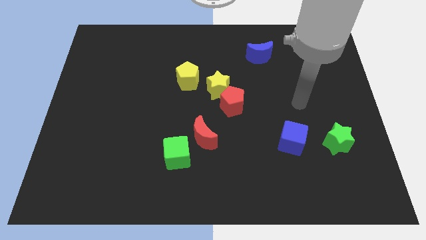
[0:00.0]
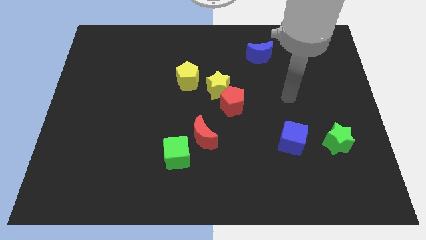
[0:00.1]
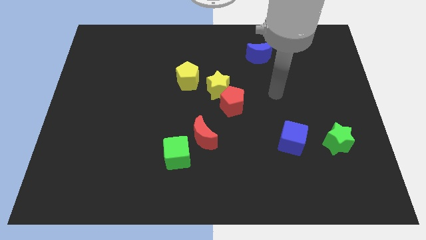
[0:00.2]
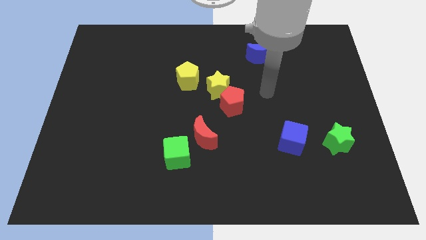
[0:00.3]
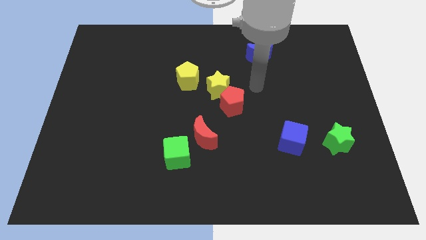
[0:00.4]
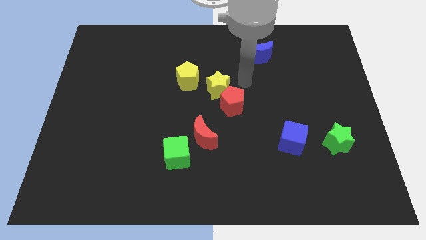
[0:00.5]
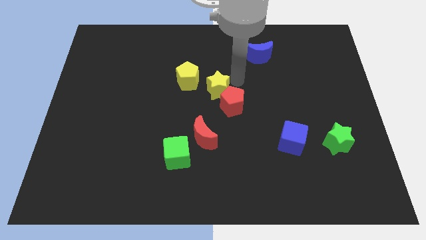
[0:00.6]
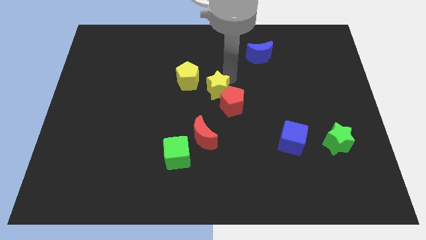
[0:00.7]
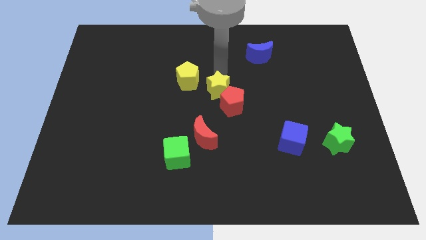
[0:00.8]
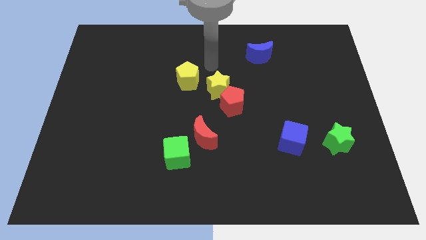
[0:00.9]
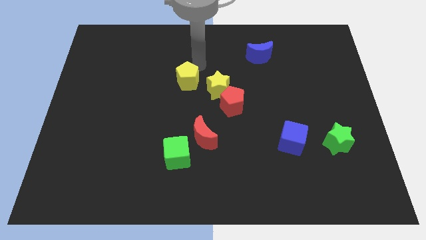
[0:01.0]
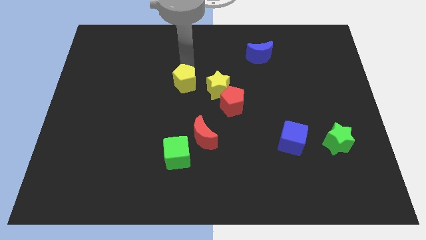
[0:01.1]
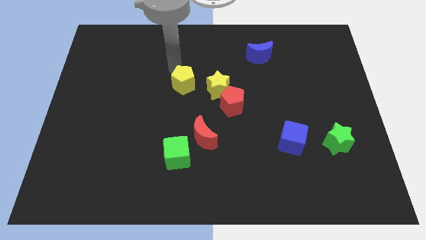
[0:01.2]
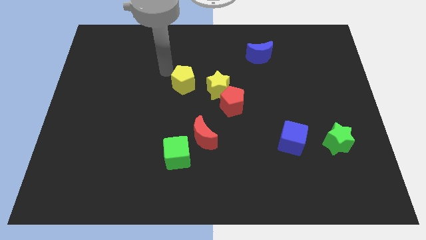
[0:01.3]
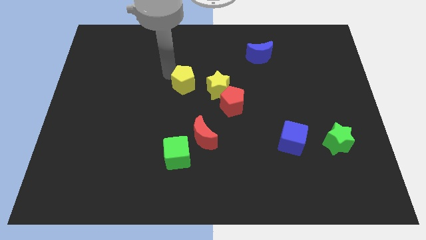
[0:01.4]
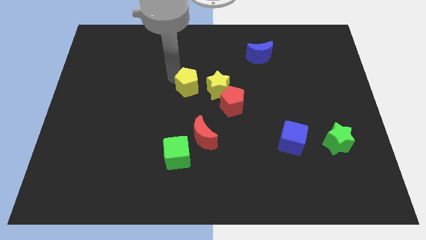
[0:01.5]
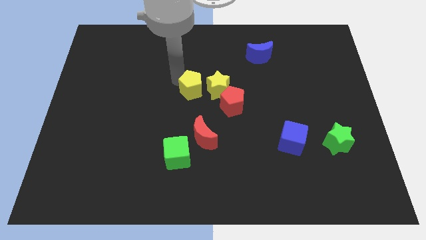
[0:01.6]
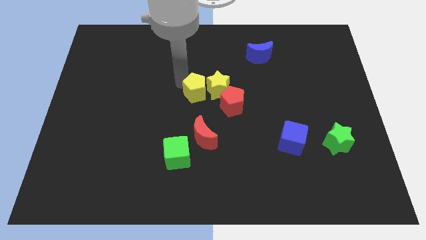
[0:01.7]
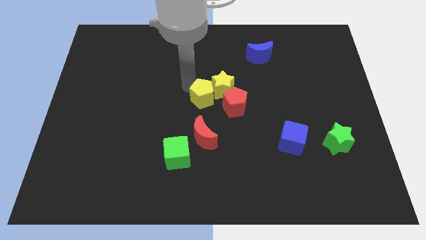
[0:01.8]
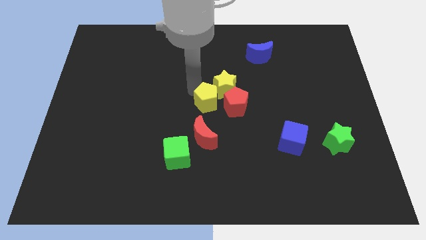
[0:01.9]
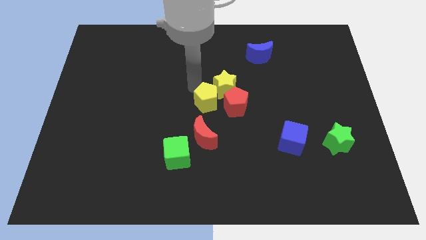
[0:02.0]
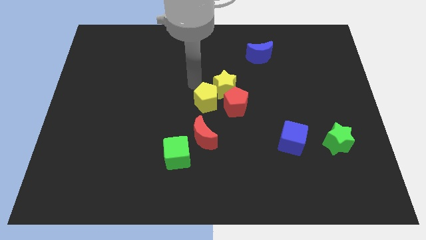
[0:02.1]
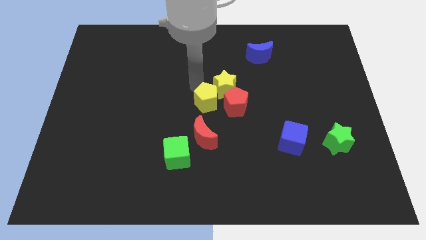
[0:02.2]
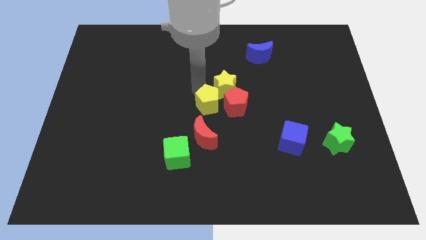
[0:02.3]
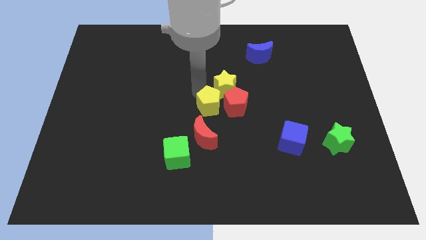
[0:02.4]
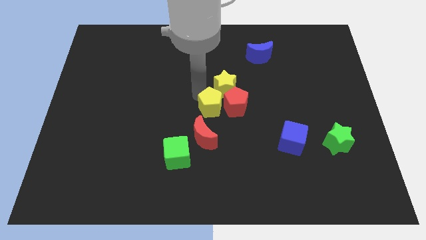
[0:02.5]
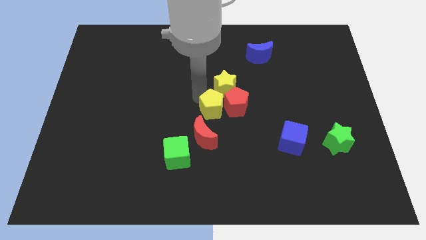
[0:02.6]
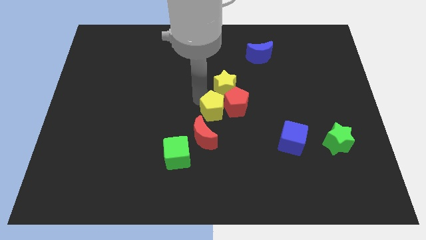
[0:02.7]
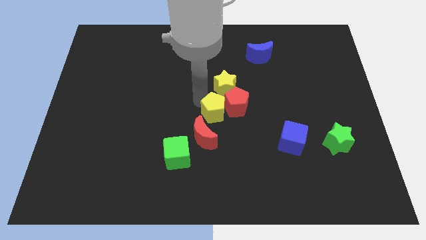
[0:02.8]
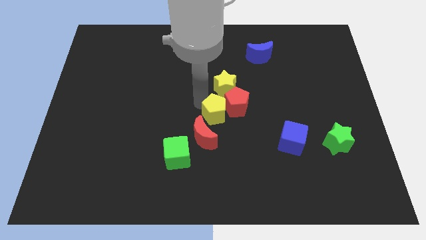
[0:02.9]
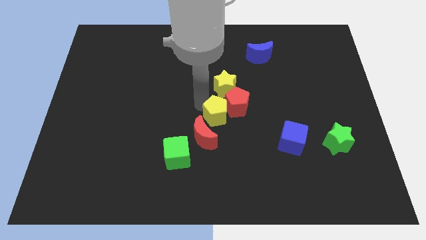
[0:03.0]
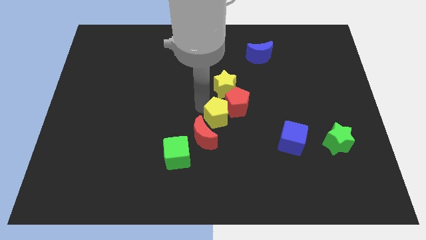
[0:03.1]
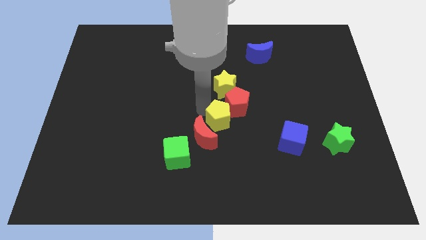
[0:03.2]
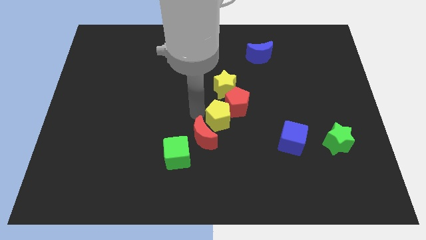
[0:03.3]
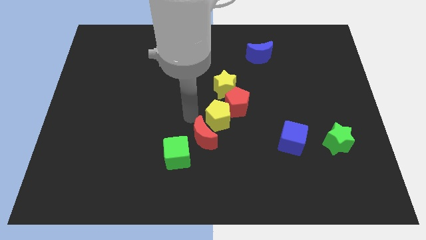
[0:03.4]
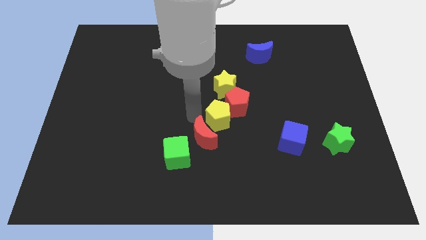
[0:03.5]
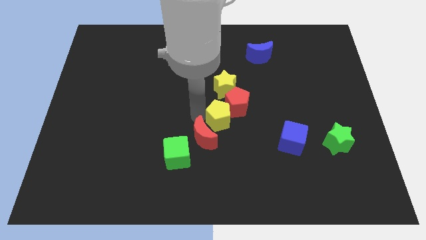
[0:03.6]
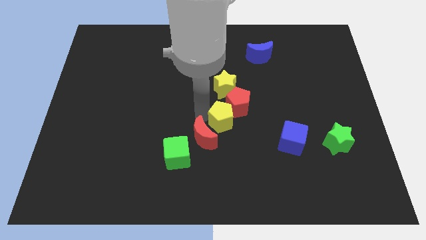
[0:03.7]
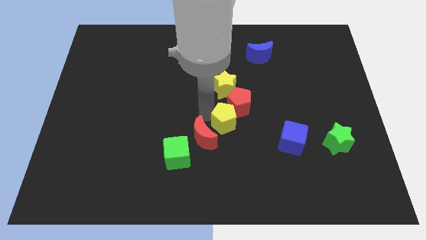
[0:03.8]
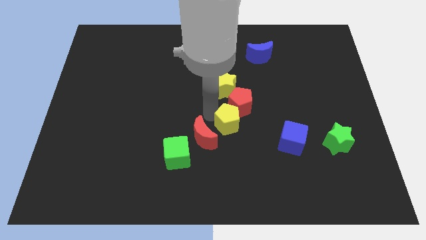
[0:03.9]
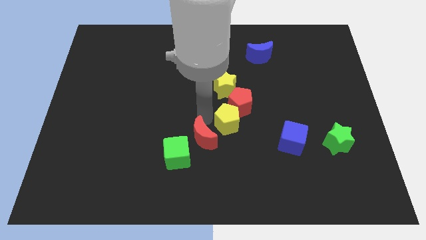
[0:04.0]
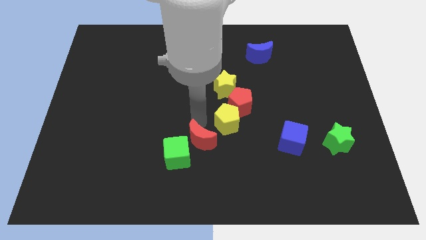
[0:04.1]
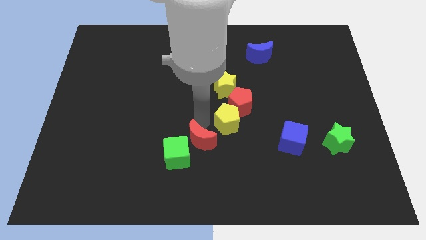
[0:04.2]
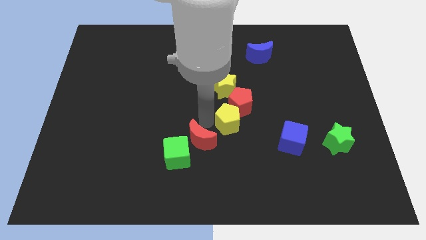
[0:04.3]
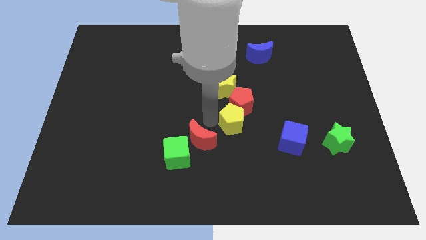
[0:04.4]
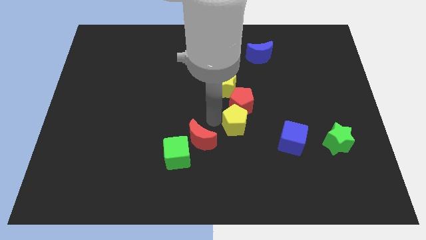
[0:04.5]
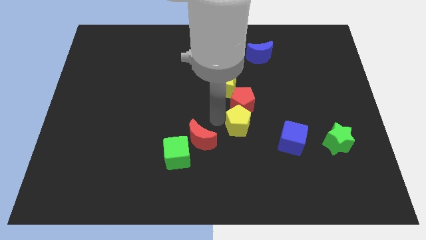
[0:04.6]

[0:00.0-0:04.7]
move the yellow pentagon diagonally down and to the right of the red pentagon

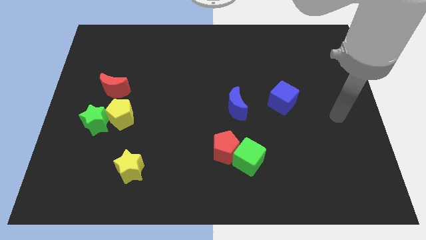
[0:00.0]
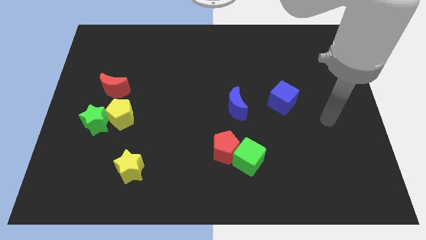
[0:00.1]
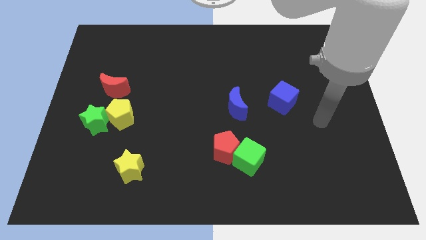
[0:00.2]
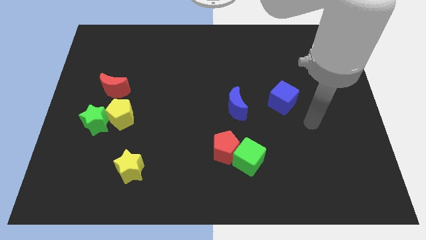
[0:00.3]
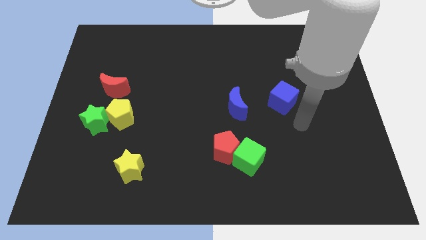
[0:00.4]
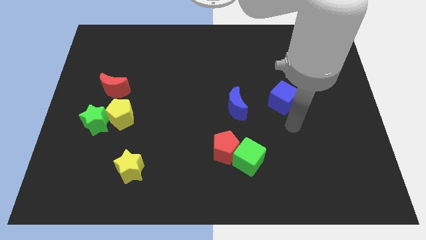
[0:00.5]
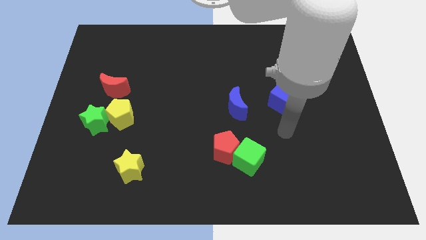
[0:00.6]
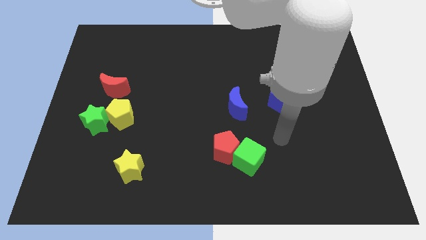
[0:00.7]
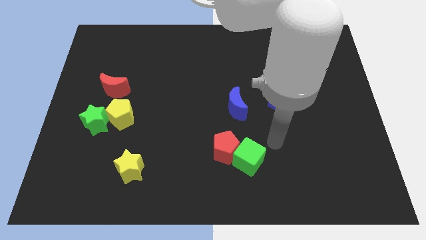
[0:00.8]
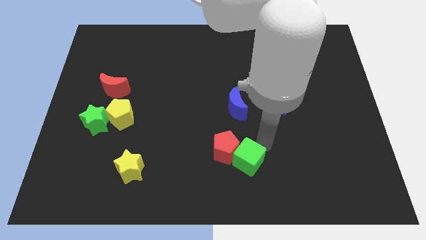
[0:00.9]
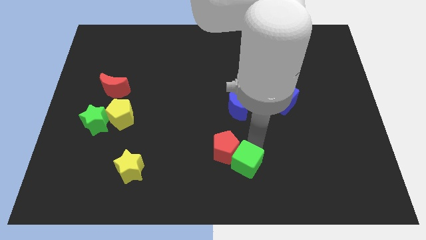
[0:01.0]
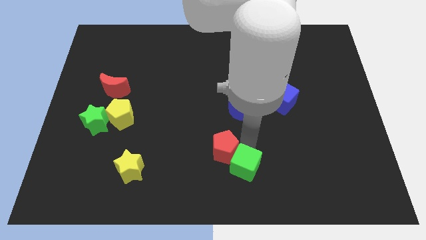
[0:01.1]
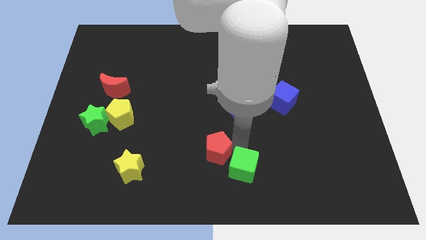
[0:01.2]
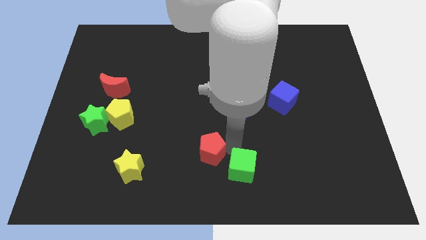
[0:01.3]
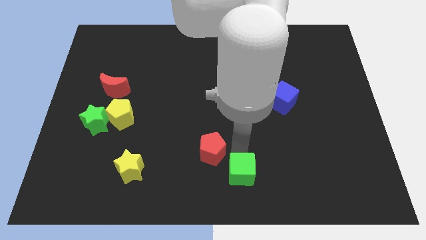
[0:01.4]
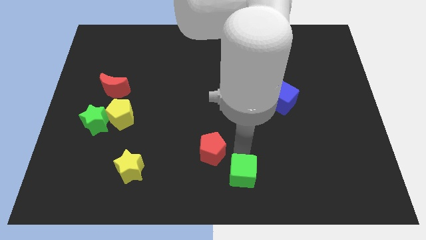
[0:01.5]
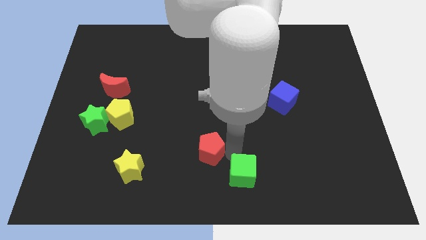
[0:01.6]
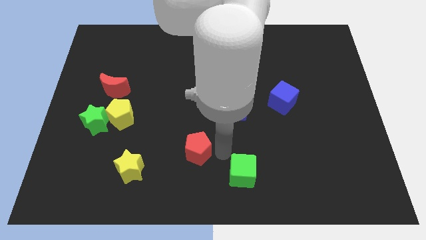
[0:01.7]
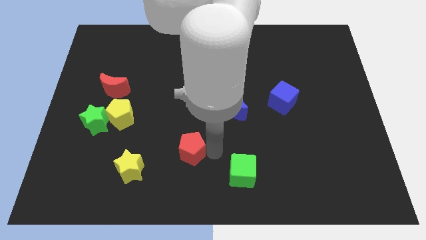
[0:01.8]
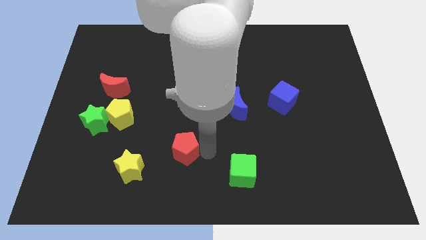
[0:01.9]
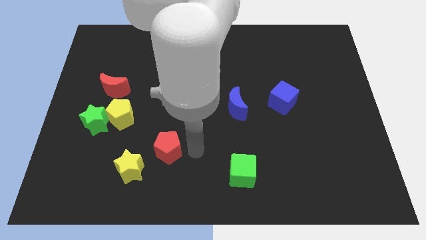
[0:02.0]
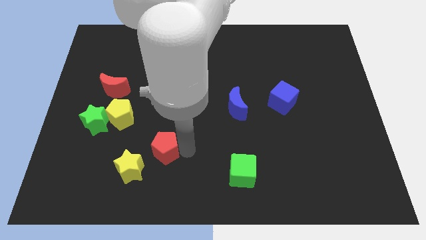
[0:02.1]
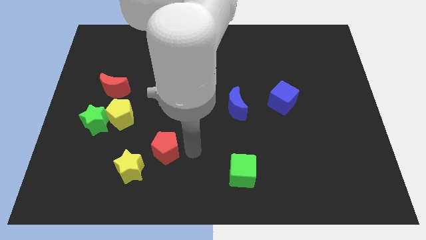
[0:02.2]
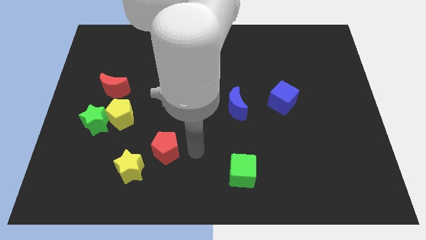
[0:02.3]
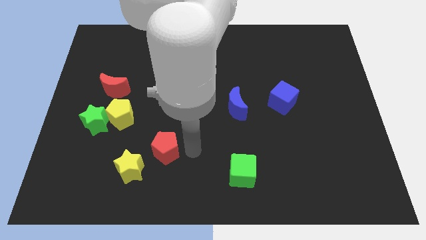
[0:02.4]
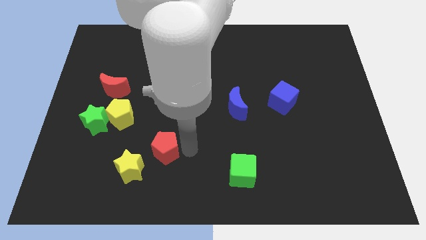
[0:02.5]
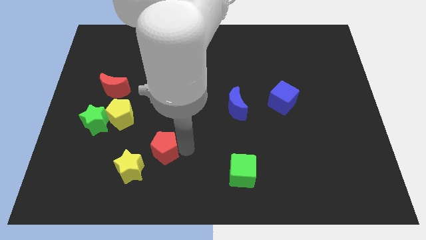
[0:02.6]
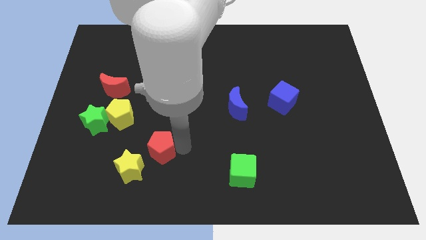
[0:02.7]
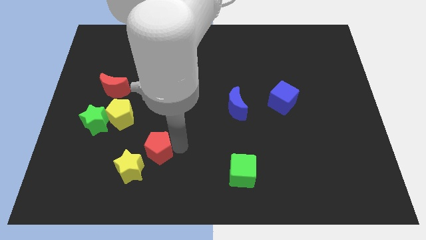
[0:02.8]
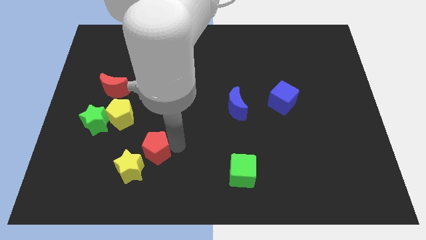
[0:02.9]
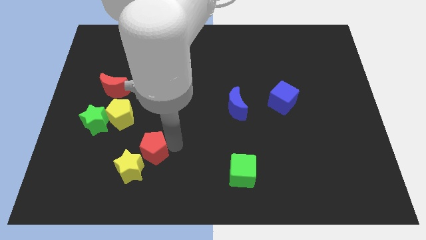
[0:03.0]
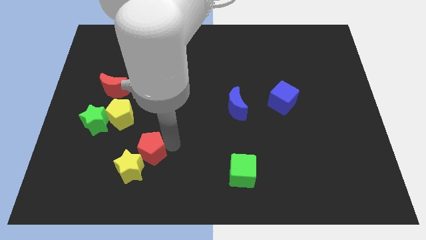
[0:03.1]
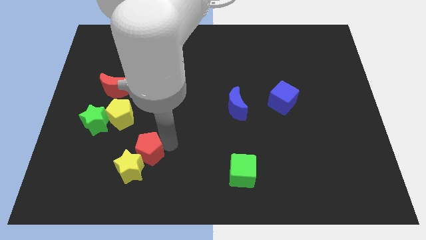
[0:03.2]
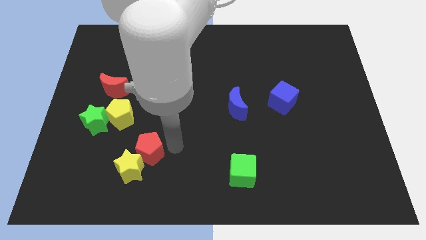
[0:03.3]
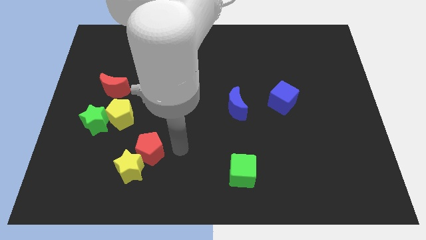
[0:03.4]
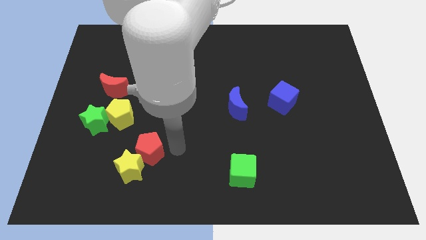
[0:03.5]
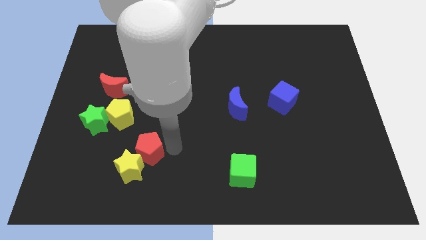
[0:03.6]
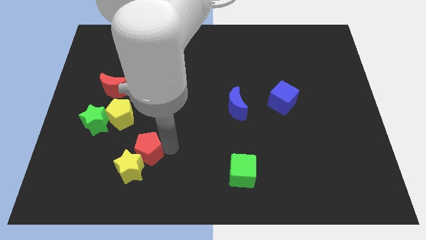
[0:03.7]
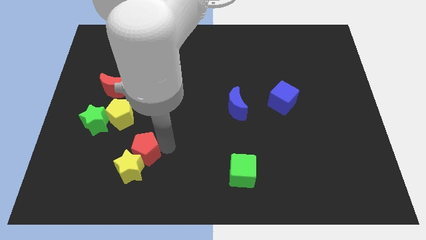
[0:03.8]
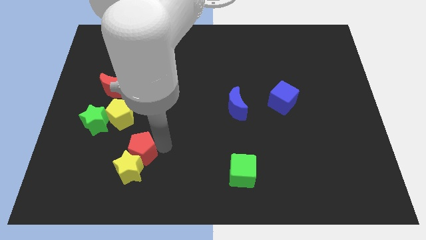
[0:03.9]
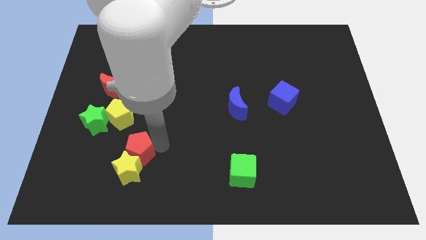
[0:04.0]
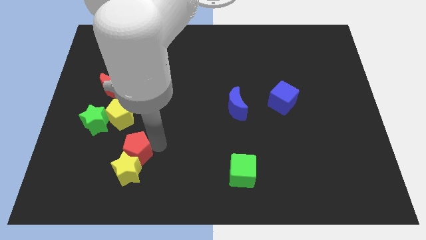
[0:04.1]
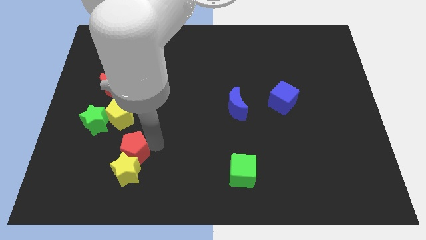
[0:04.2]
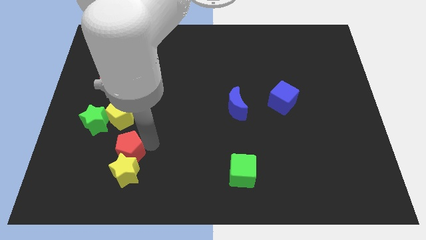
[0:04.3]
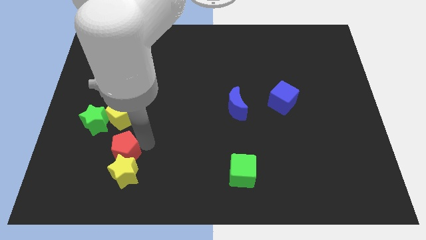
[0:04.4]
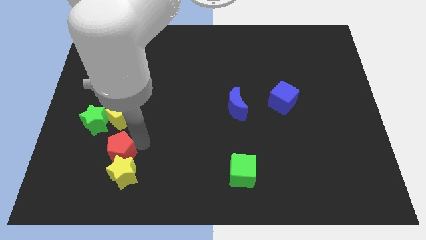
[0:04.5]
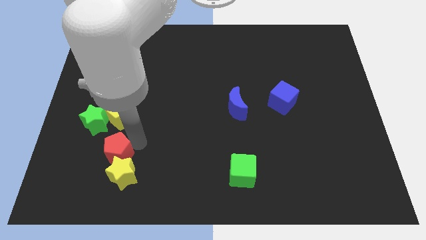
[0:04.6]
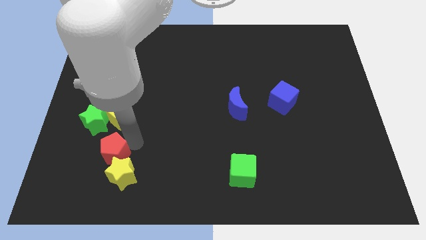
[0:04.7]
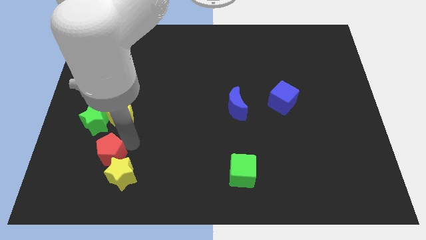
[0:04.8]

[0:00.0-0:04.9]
slide the red pentagon to the bottom side of the green star
